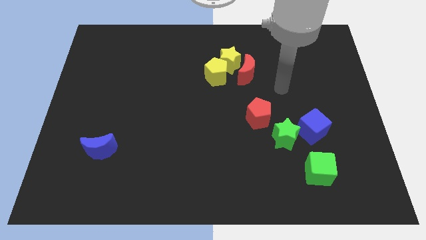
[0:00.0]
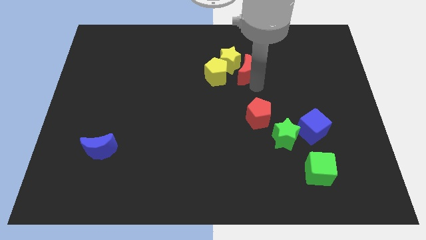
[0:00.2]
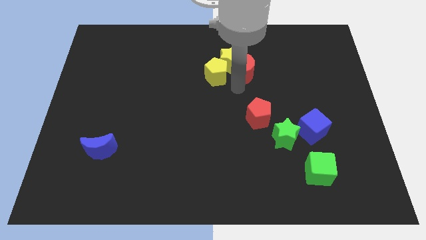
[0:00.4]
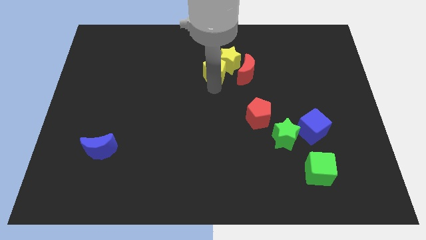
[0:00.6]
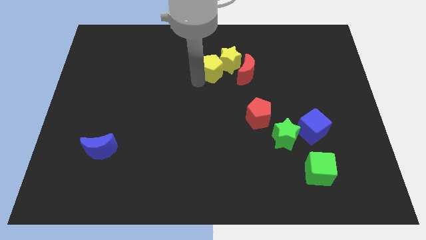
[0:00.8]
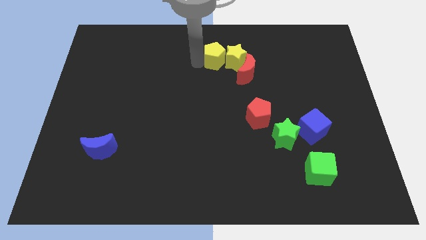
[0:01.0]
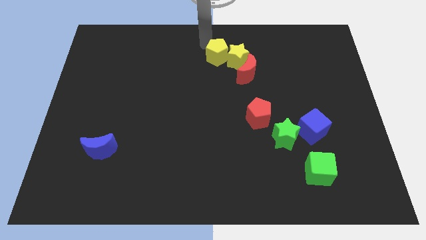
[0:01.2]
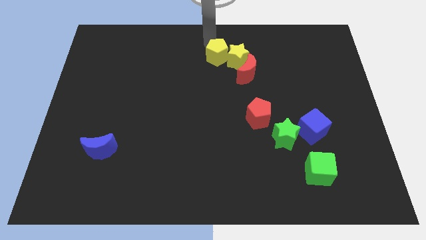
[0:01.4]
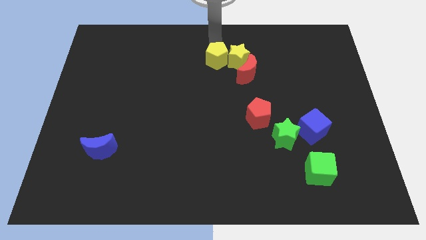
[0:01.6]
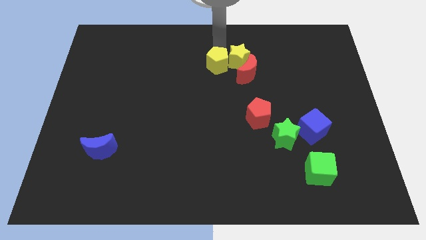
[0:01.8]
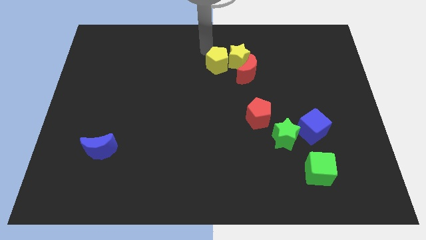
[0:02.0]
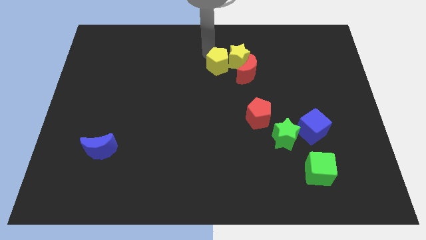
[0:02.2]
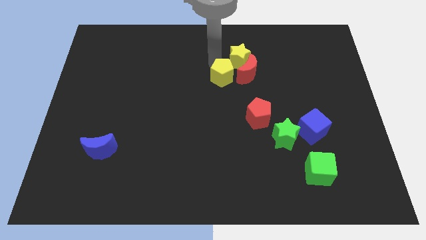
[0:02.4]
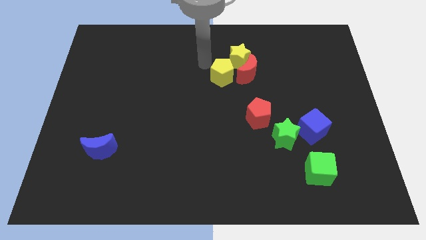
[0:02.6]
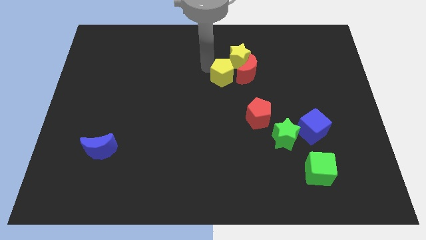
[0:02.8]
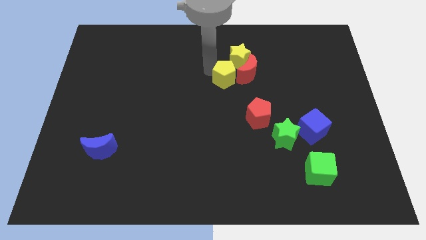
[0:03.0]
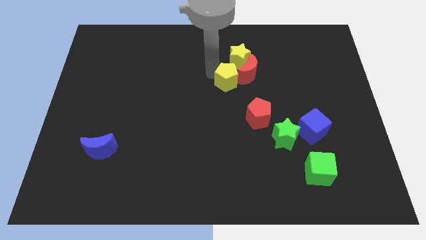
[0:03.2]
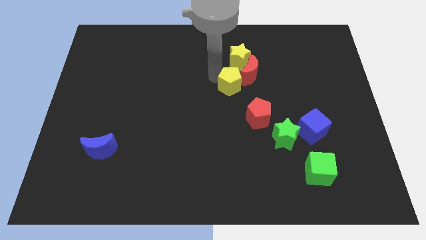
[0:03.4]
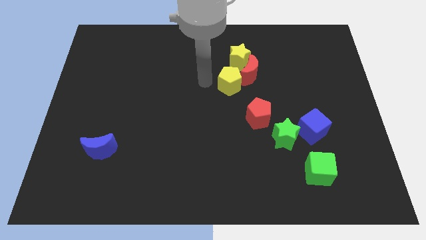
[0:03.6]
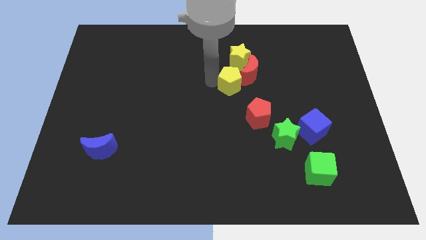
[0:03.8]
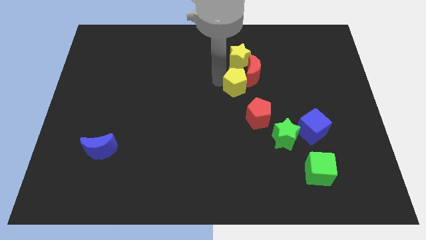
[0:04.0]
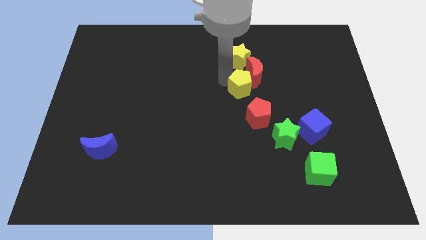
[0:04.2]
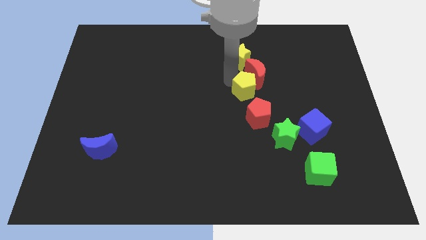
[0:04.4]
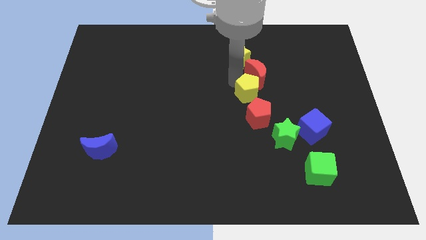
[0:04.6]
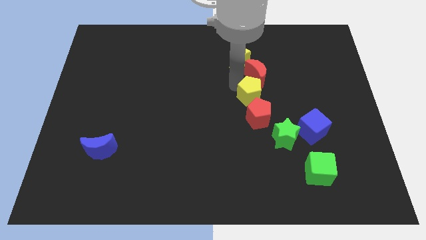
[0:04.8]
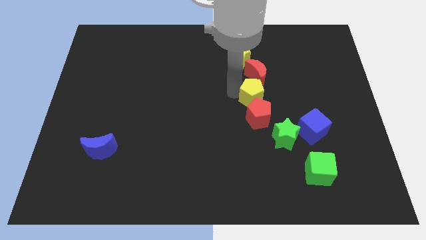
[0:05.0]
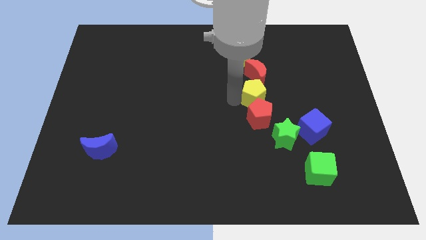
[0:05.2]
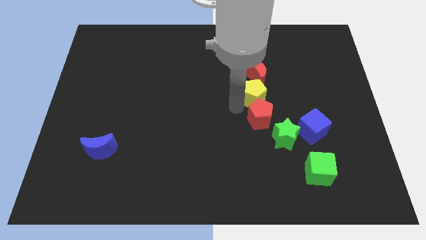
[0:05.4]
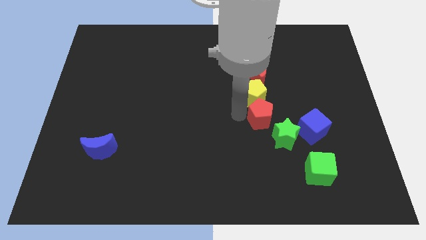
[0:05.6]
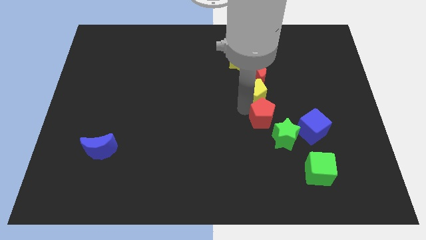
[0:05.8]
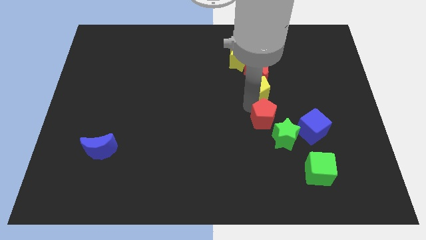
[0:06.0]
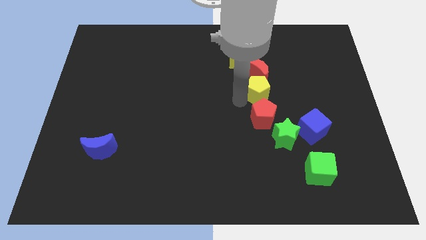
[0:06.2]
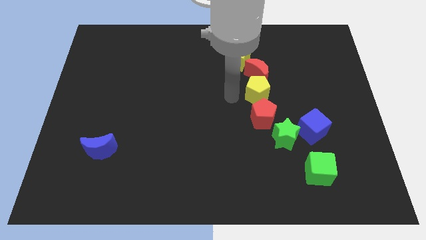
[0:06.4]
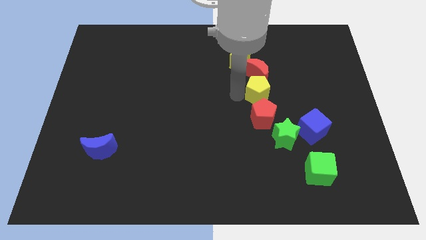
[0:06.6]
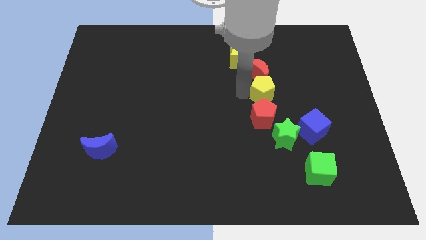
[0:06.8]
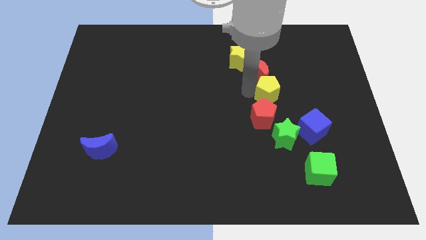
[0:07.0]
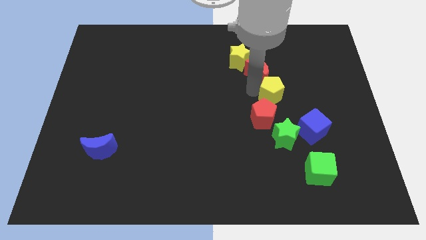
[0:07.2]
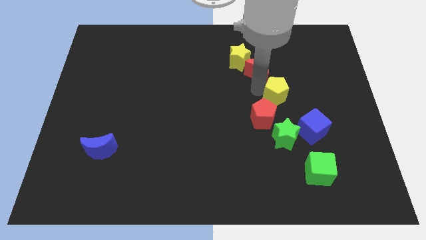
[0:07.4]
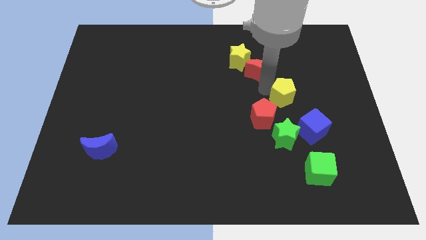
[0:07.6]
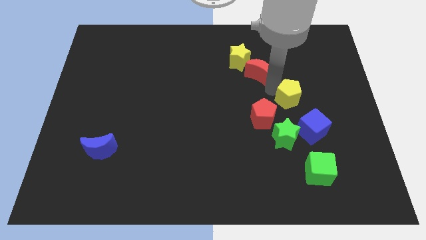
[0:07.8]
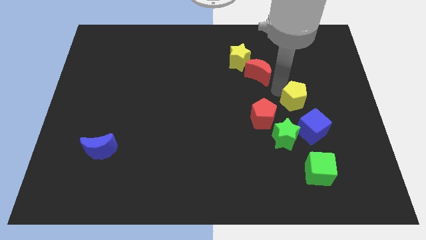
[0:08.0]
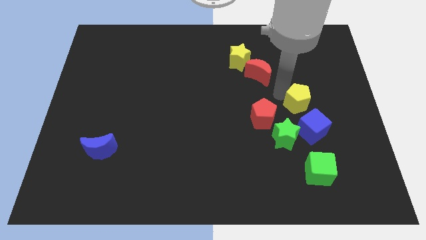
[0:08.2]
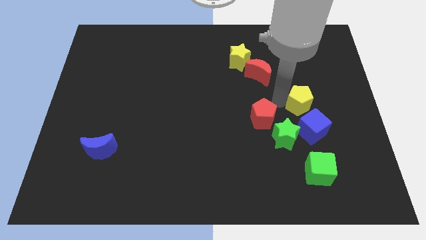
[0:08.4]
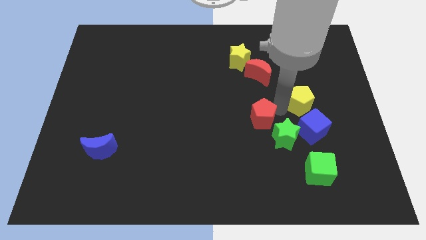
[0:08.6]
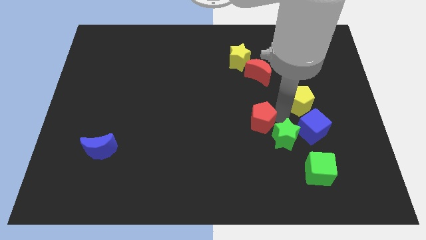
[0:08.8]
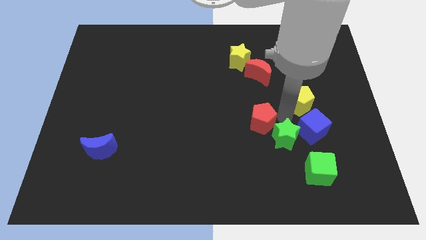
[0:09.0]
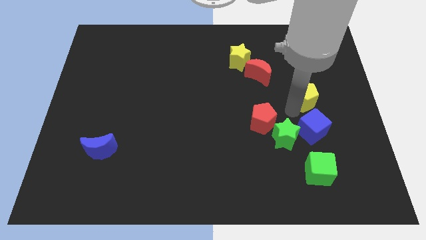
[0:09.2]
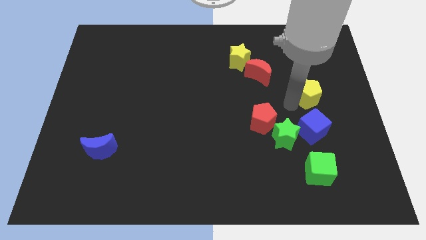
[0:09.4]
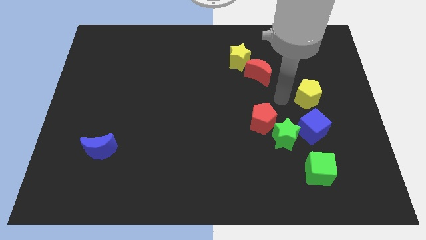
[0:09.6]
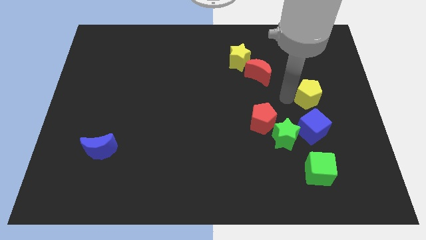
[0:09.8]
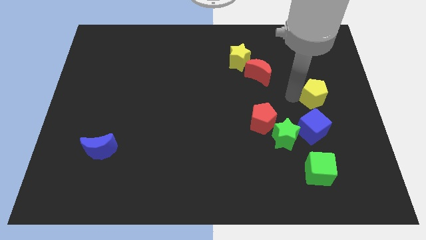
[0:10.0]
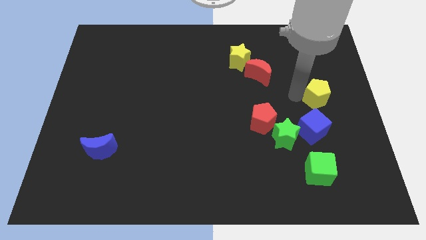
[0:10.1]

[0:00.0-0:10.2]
push the yellow pentagon to the center right
